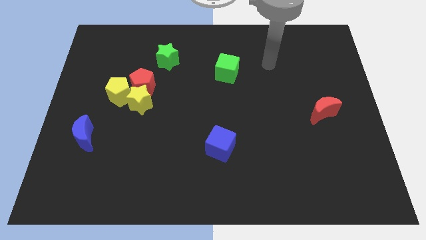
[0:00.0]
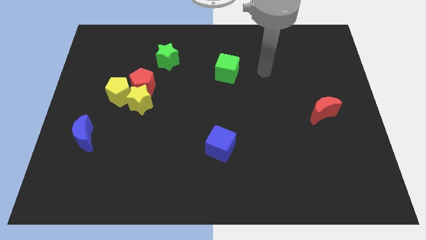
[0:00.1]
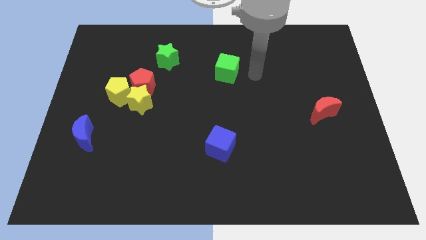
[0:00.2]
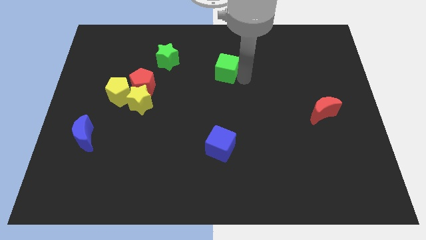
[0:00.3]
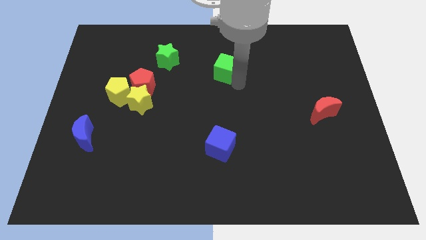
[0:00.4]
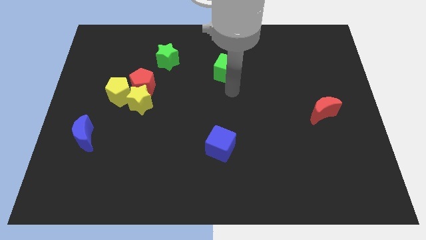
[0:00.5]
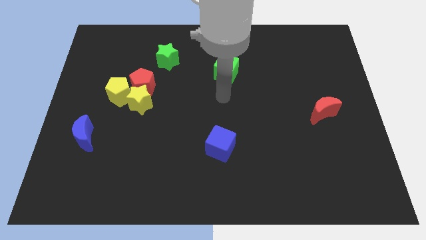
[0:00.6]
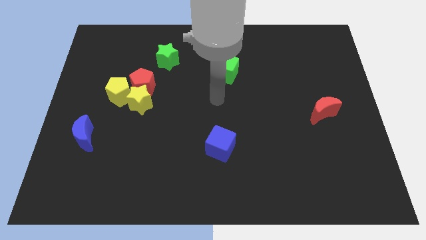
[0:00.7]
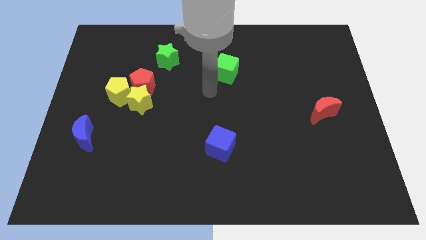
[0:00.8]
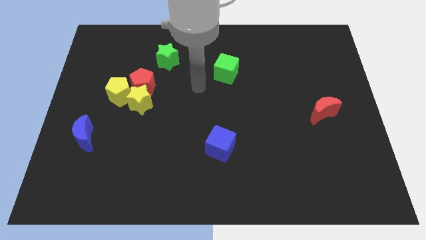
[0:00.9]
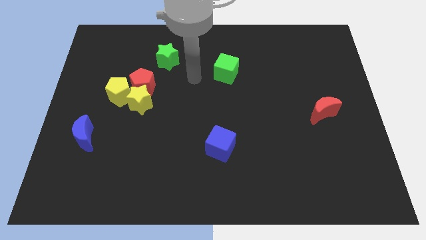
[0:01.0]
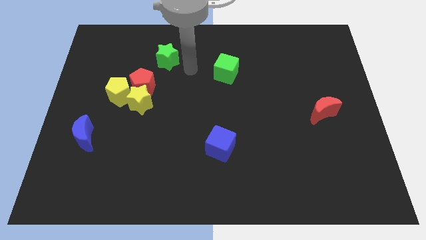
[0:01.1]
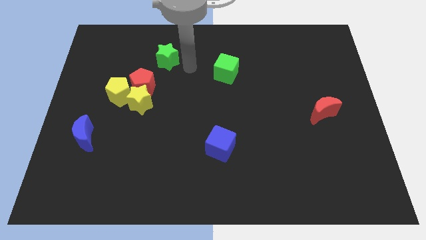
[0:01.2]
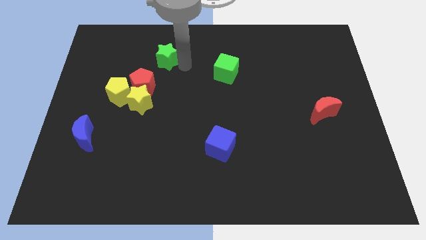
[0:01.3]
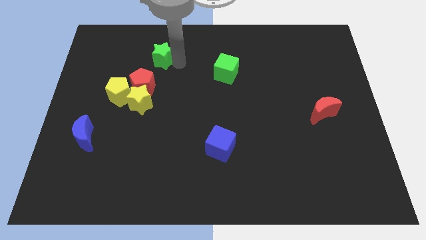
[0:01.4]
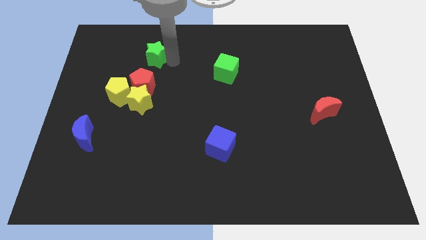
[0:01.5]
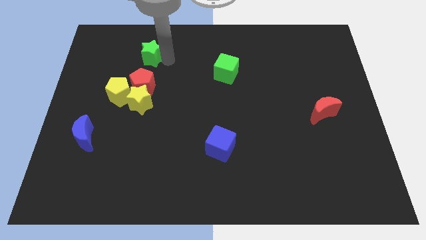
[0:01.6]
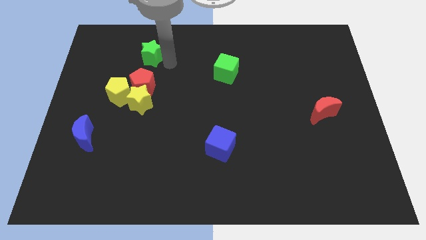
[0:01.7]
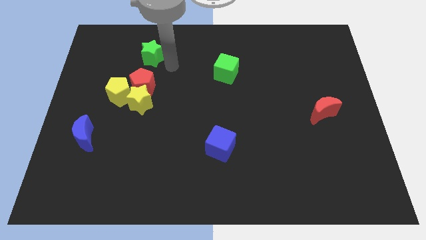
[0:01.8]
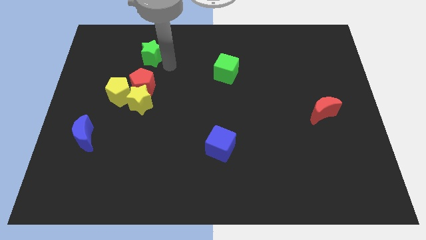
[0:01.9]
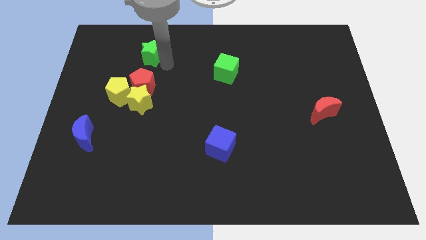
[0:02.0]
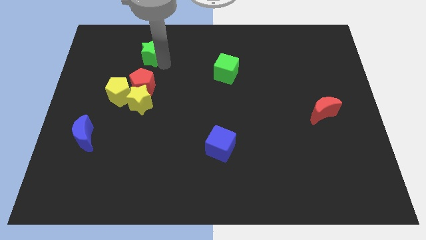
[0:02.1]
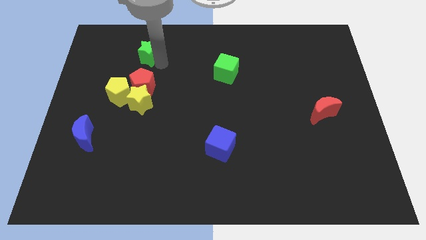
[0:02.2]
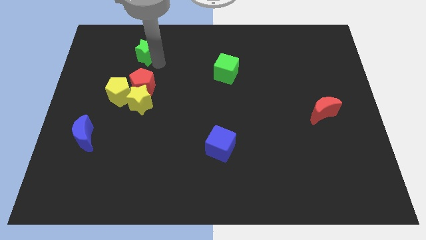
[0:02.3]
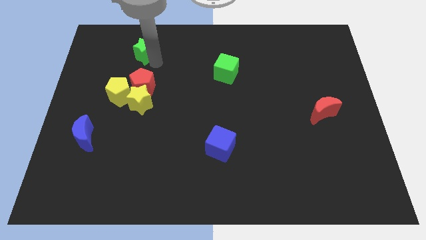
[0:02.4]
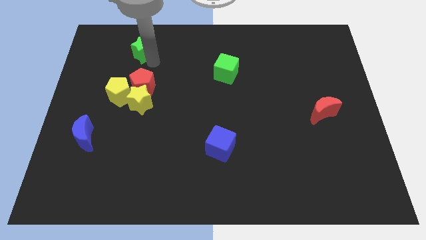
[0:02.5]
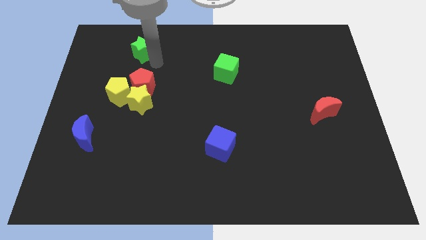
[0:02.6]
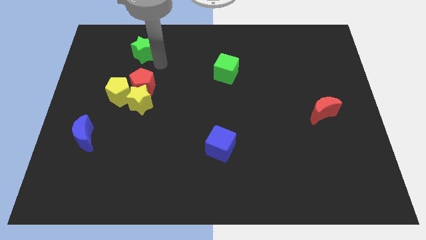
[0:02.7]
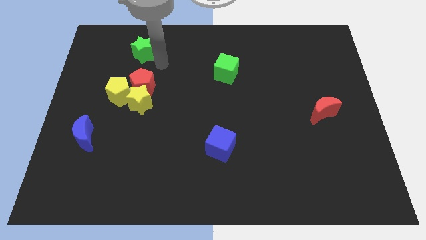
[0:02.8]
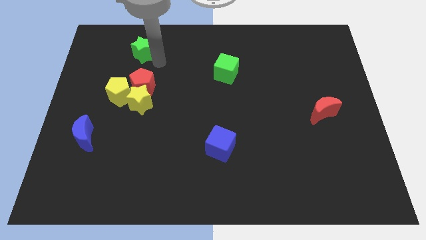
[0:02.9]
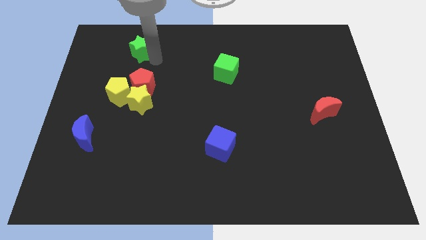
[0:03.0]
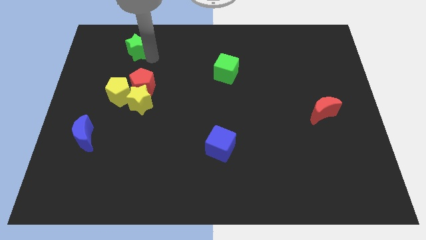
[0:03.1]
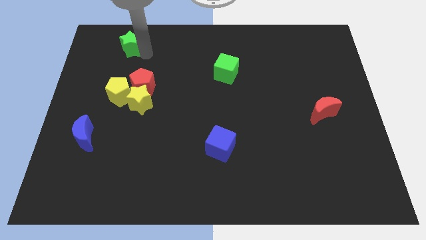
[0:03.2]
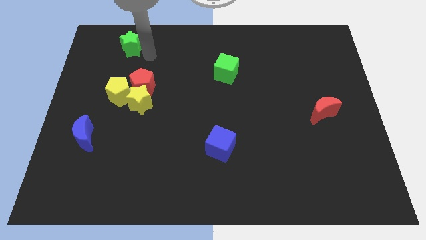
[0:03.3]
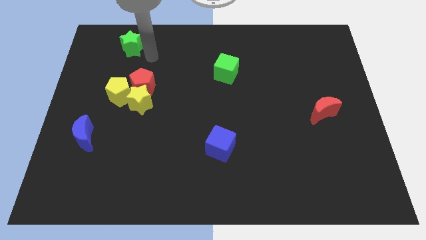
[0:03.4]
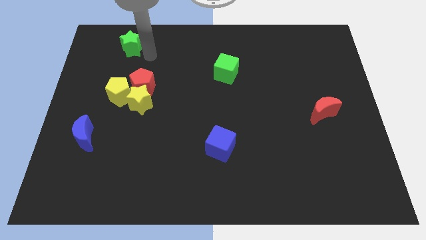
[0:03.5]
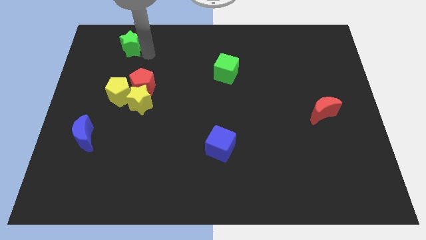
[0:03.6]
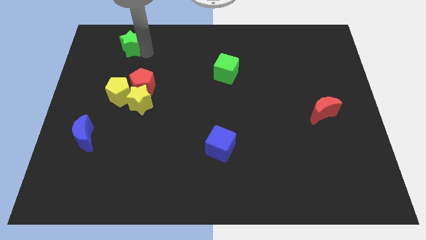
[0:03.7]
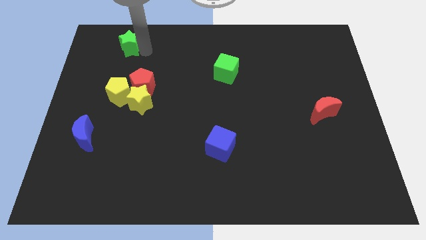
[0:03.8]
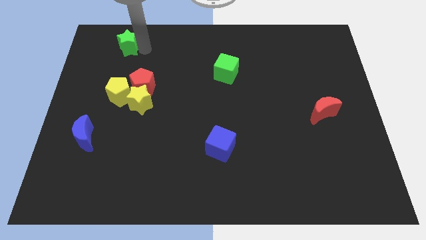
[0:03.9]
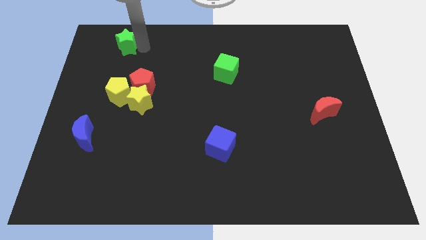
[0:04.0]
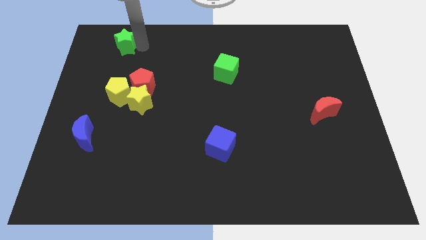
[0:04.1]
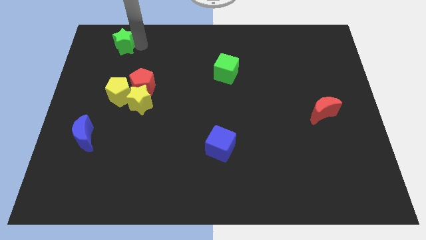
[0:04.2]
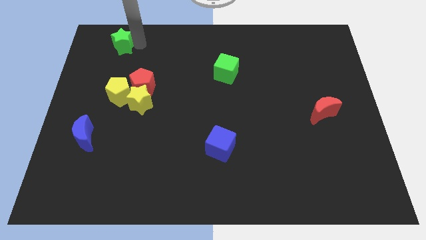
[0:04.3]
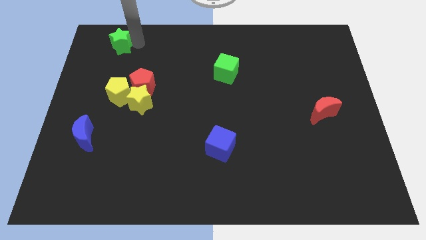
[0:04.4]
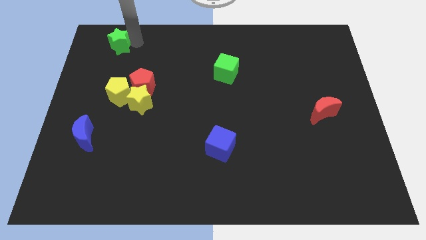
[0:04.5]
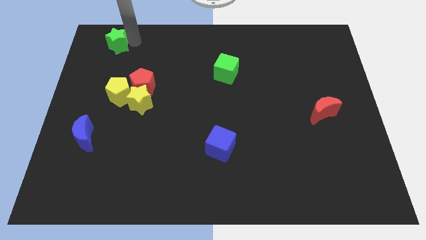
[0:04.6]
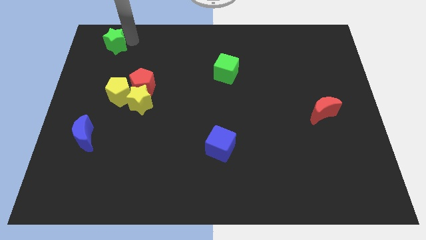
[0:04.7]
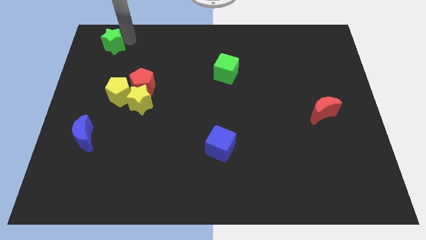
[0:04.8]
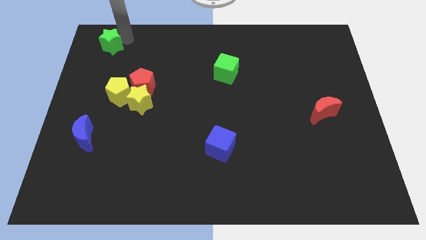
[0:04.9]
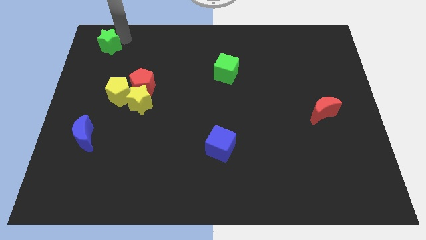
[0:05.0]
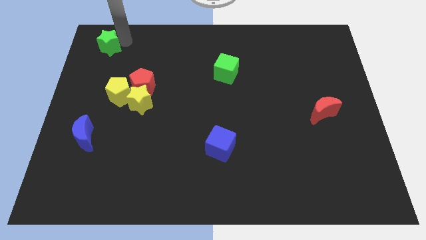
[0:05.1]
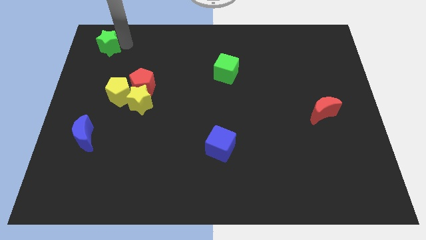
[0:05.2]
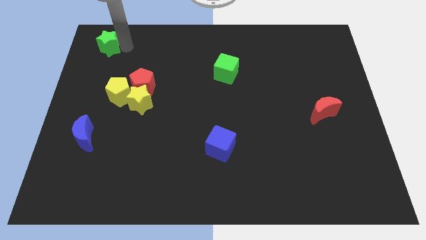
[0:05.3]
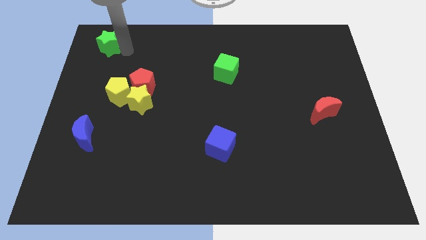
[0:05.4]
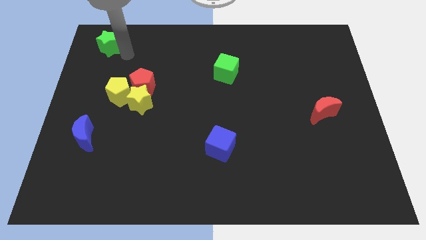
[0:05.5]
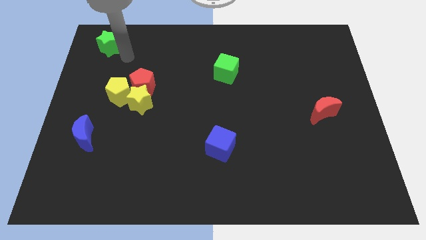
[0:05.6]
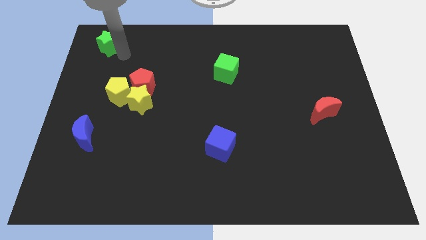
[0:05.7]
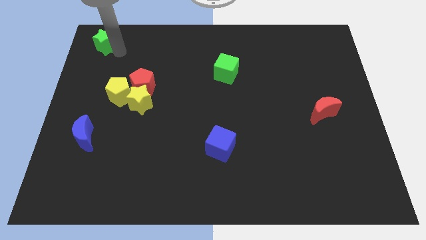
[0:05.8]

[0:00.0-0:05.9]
put the green star to the top left of the board

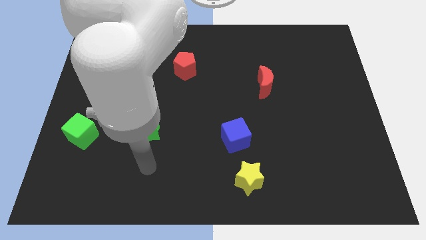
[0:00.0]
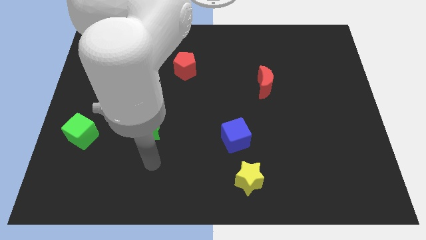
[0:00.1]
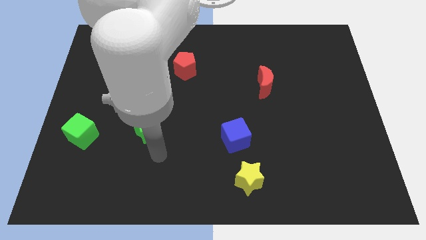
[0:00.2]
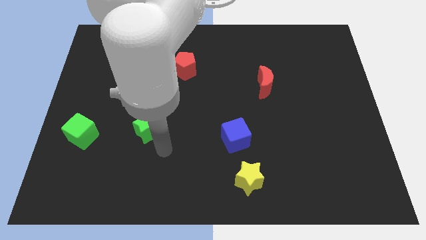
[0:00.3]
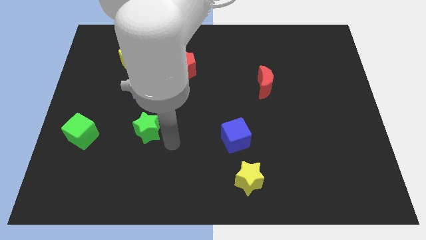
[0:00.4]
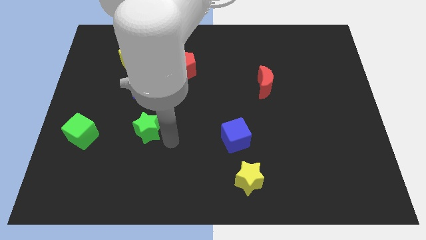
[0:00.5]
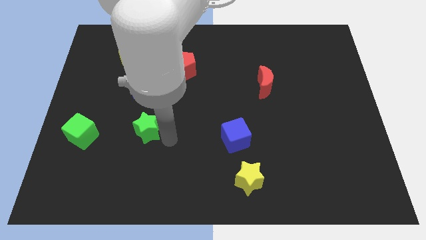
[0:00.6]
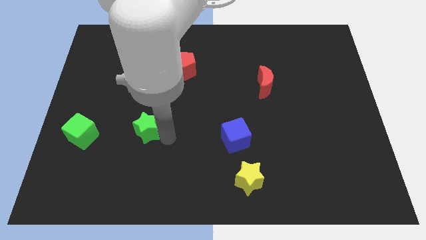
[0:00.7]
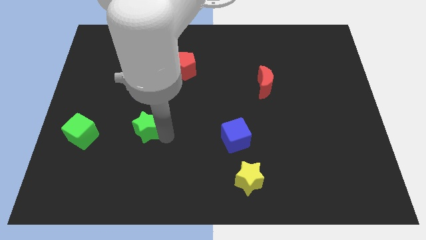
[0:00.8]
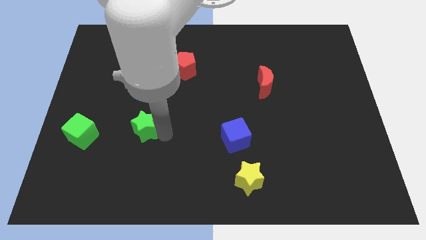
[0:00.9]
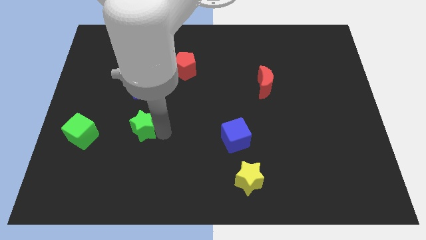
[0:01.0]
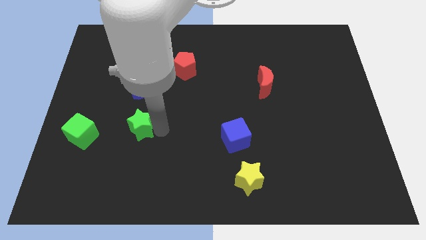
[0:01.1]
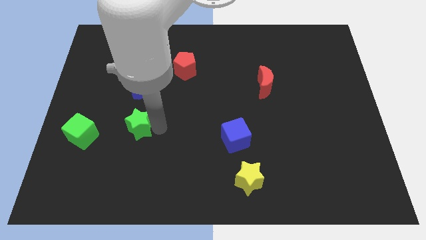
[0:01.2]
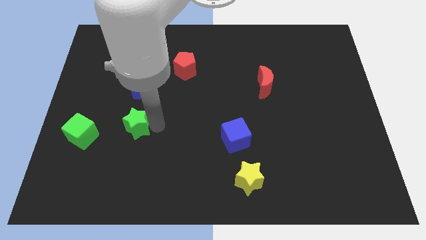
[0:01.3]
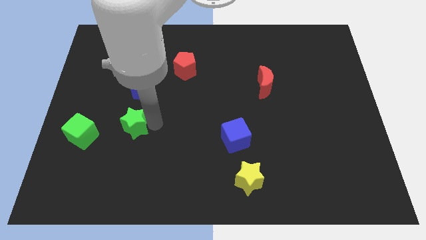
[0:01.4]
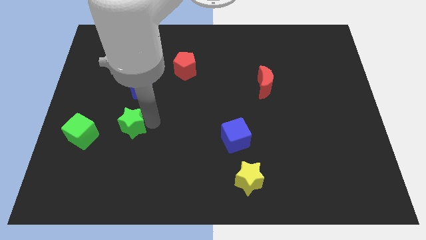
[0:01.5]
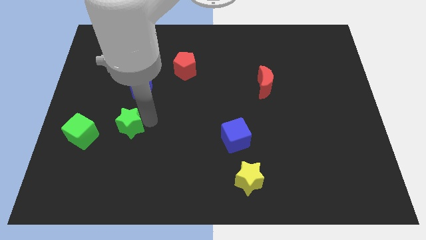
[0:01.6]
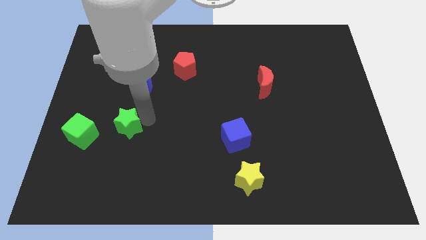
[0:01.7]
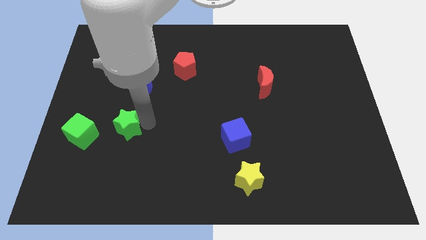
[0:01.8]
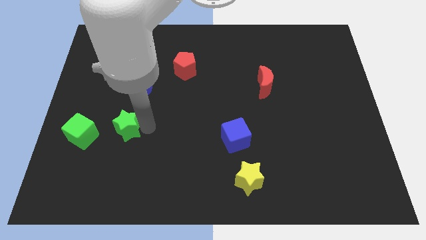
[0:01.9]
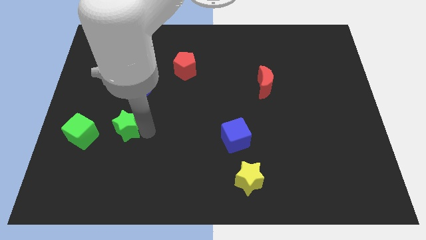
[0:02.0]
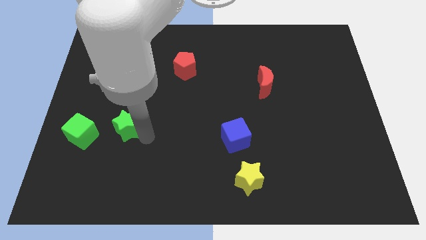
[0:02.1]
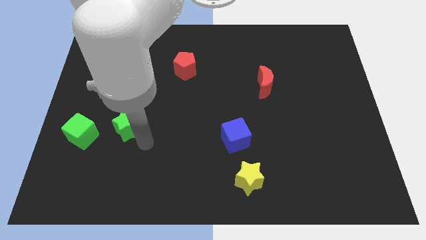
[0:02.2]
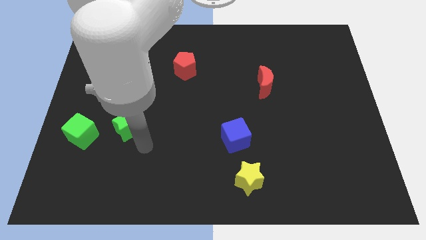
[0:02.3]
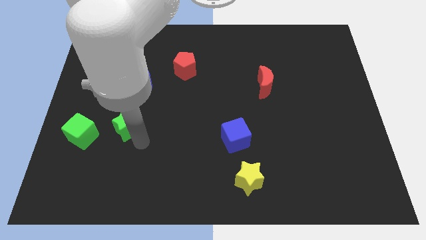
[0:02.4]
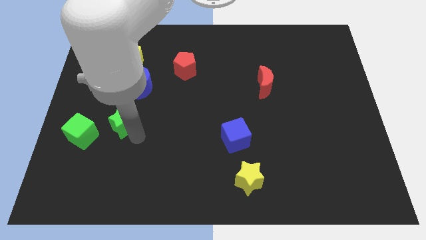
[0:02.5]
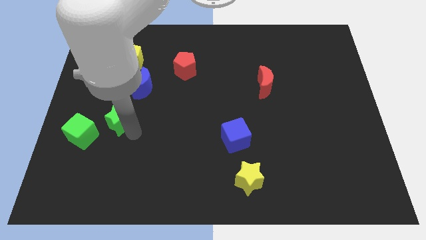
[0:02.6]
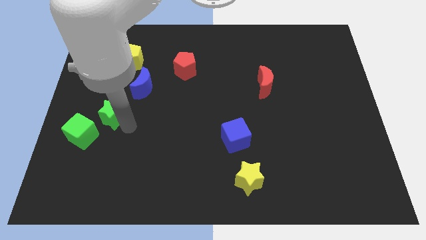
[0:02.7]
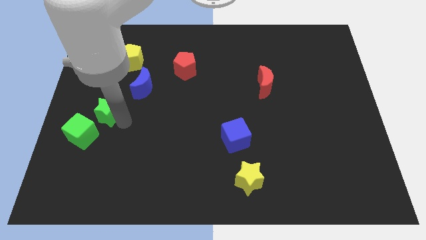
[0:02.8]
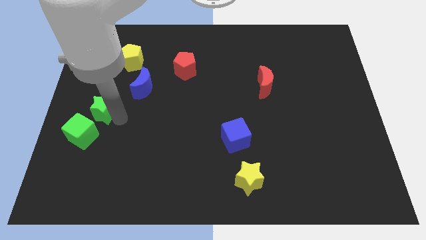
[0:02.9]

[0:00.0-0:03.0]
put the green star to the left side
